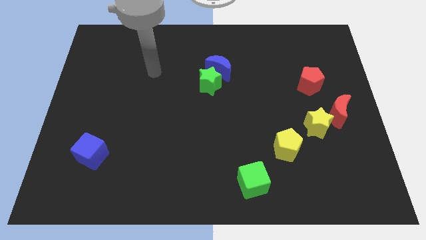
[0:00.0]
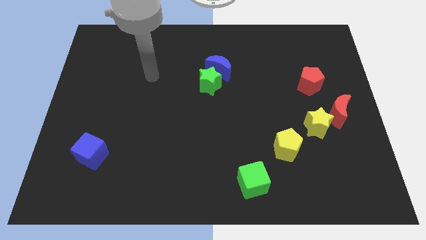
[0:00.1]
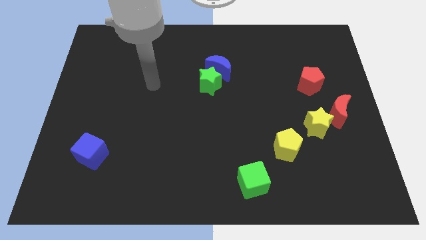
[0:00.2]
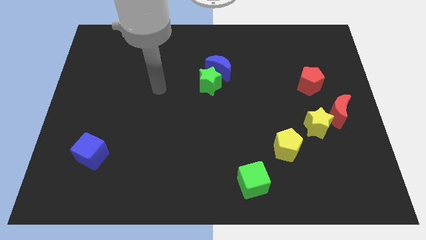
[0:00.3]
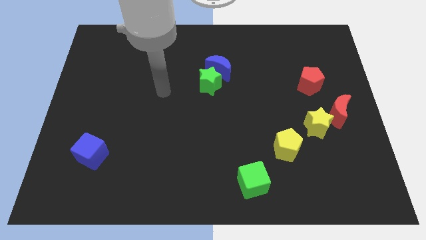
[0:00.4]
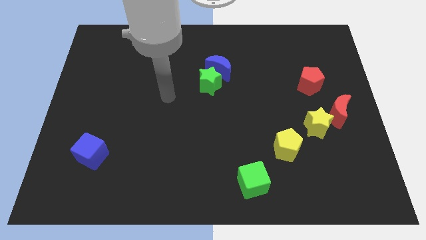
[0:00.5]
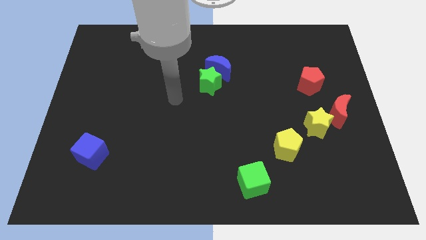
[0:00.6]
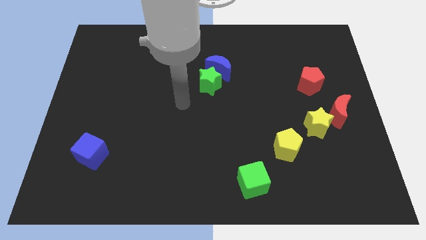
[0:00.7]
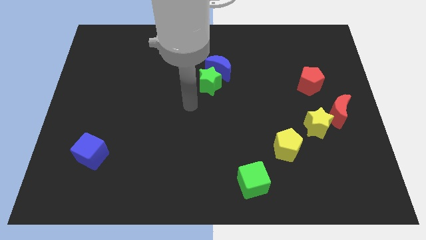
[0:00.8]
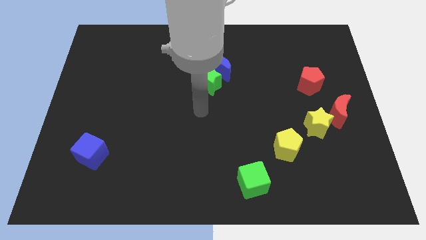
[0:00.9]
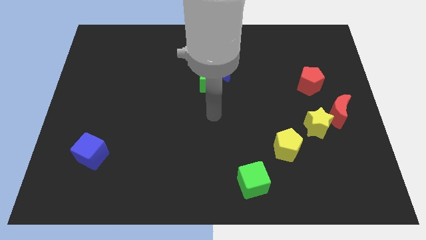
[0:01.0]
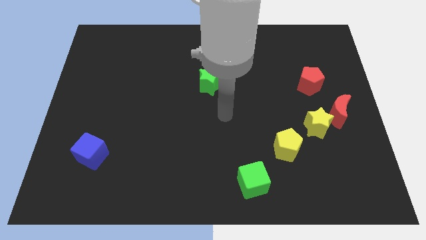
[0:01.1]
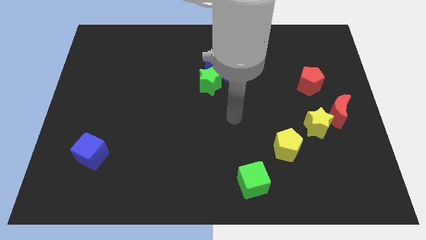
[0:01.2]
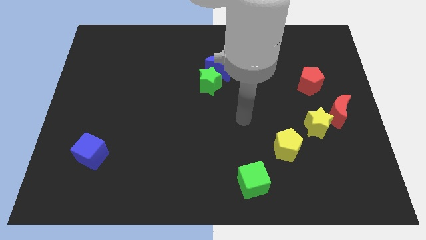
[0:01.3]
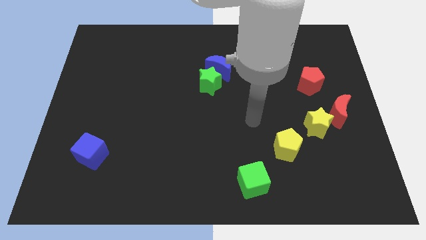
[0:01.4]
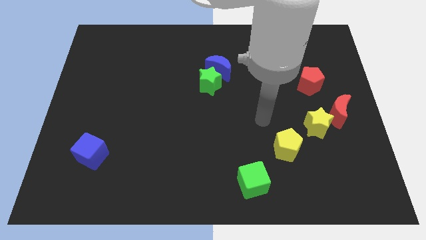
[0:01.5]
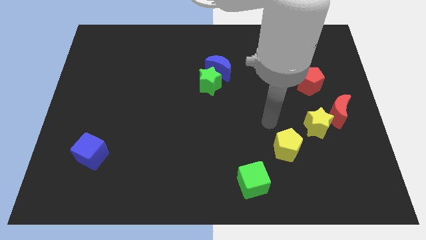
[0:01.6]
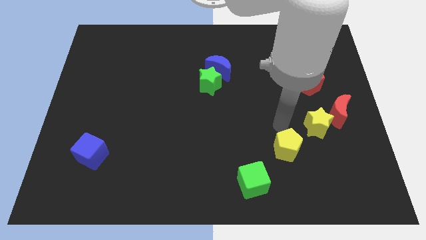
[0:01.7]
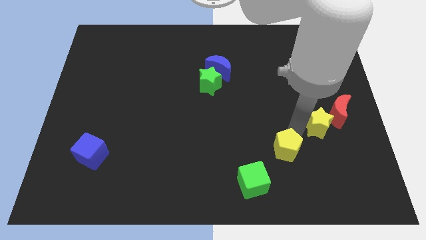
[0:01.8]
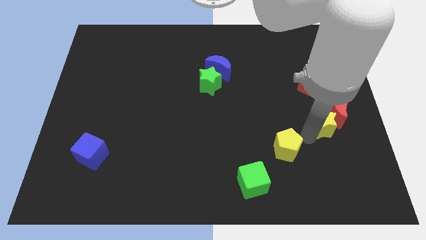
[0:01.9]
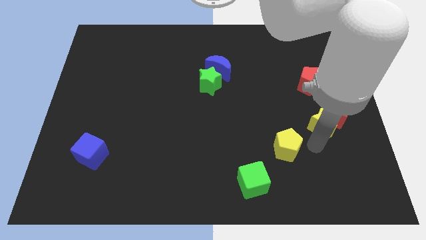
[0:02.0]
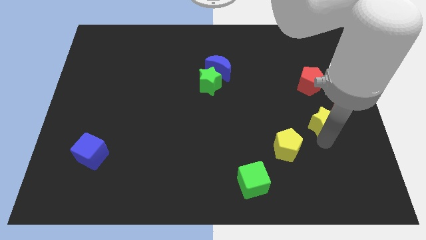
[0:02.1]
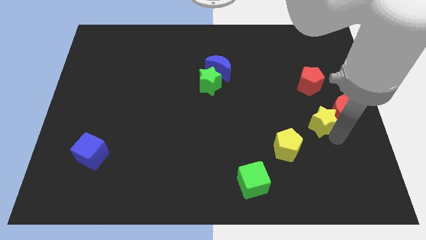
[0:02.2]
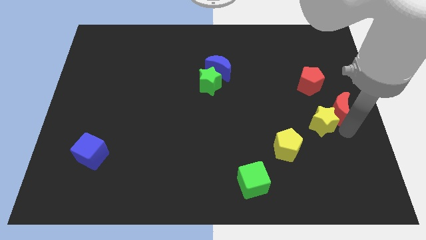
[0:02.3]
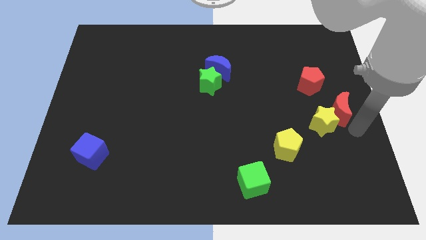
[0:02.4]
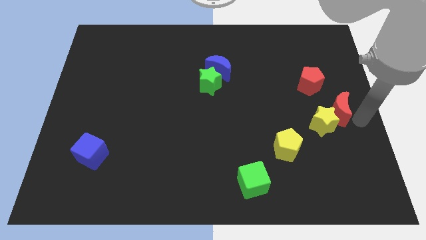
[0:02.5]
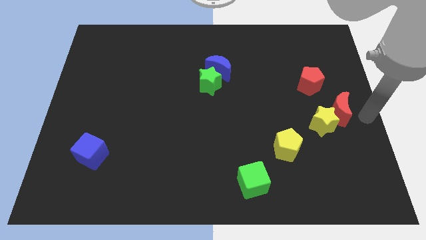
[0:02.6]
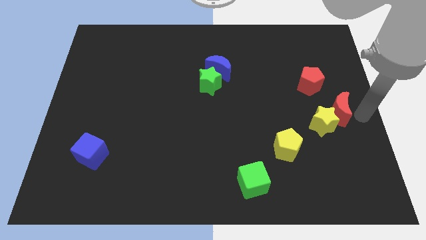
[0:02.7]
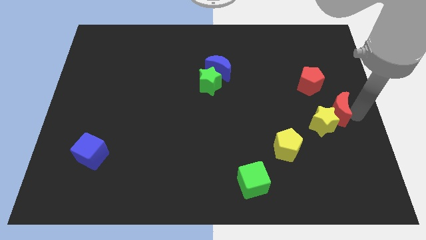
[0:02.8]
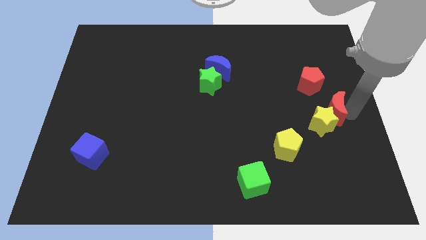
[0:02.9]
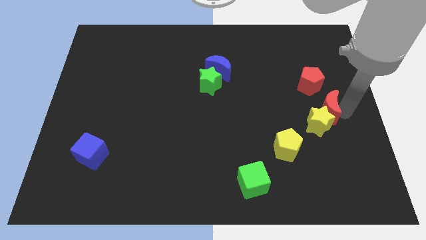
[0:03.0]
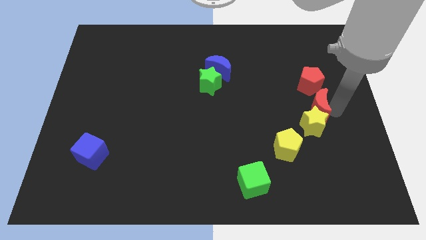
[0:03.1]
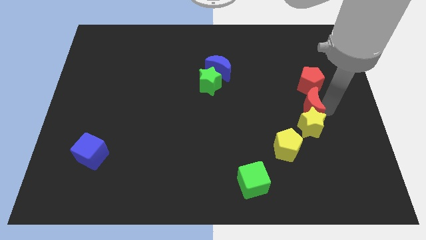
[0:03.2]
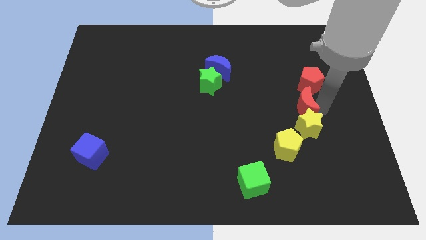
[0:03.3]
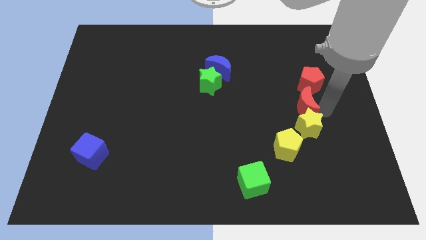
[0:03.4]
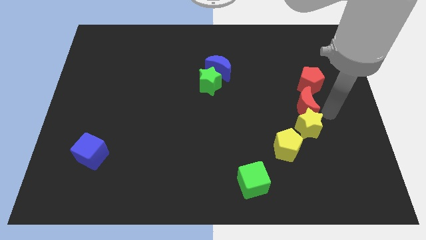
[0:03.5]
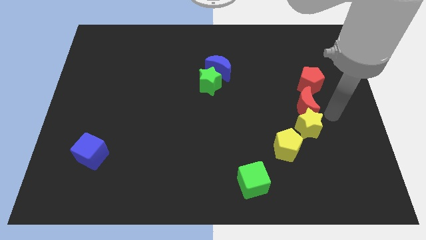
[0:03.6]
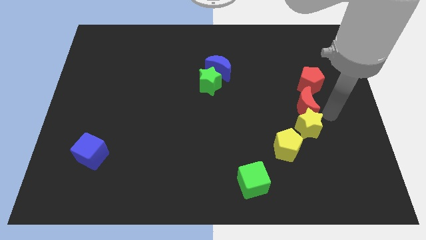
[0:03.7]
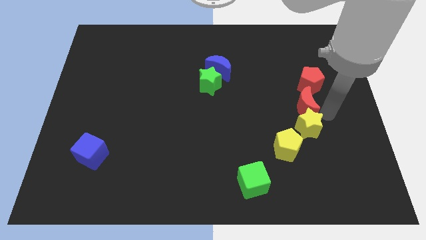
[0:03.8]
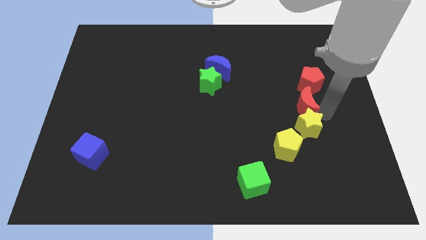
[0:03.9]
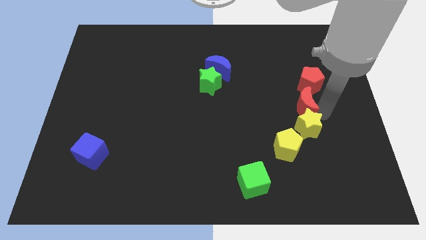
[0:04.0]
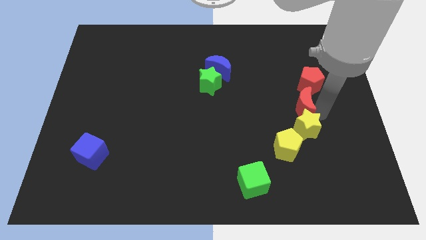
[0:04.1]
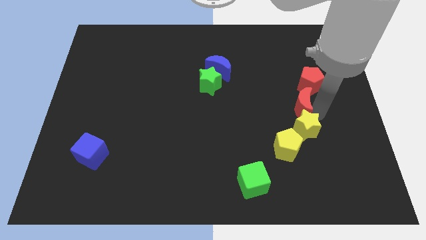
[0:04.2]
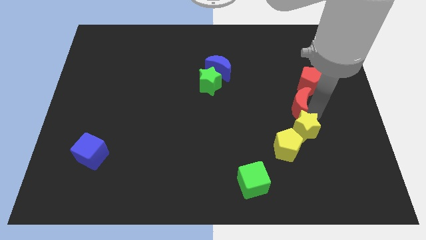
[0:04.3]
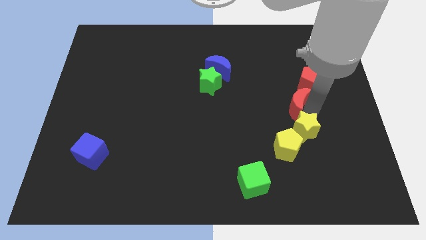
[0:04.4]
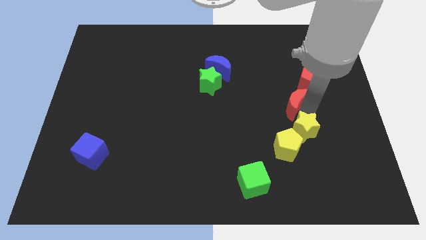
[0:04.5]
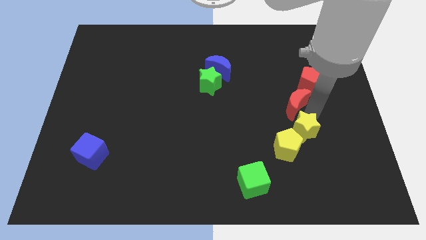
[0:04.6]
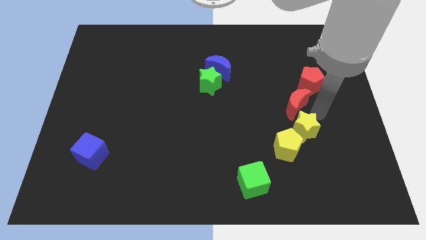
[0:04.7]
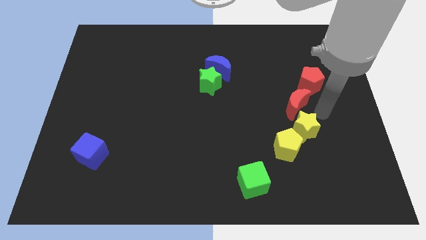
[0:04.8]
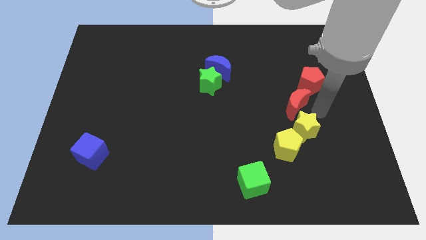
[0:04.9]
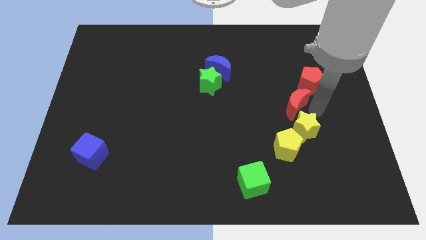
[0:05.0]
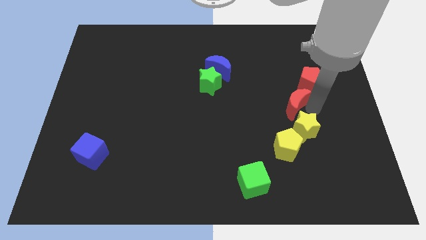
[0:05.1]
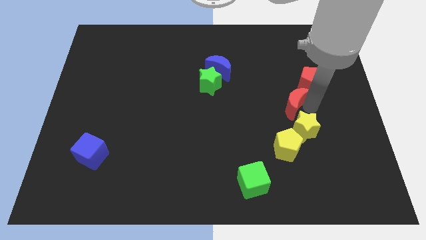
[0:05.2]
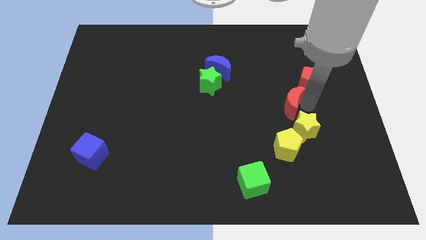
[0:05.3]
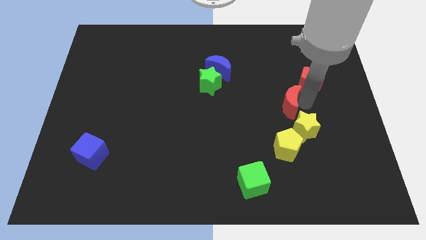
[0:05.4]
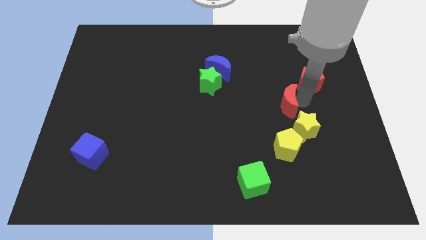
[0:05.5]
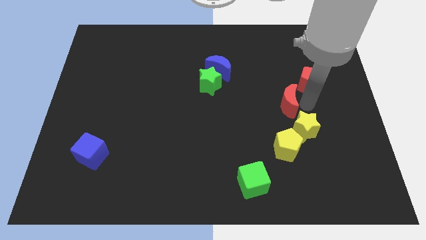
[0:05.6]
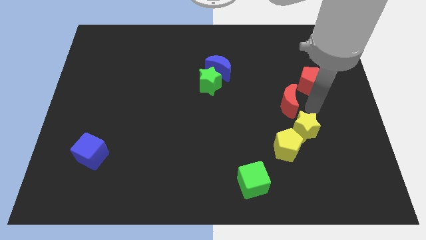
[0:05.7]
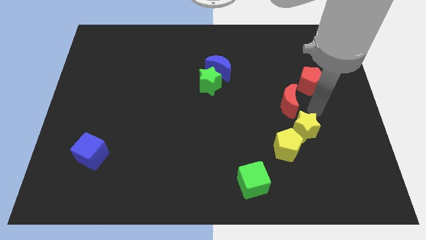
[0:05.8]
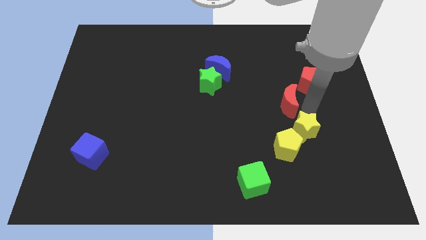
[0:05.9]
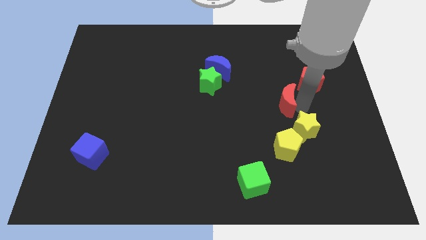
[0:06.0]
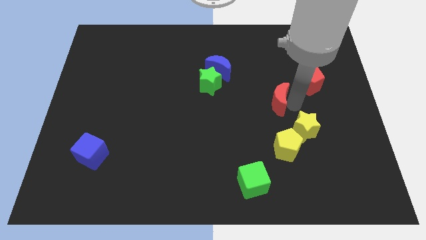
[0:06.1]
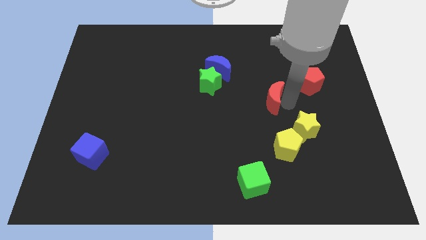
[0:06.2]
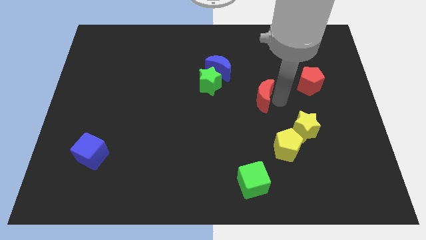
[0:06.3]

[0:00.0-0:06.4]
move the red moon to the middle of the board
